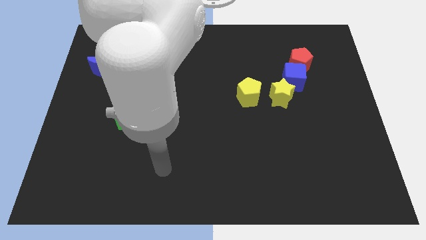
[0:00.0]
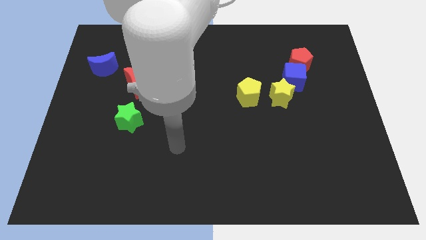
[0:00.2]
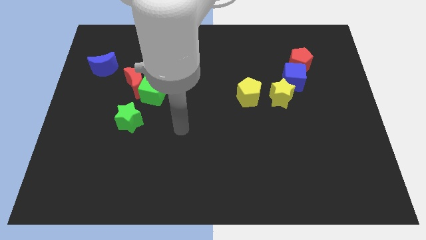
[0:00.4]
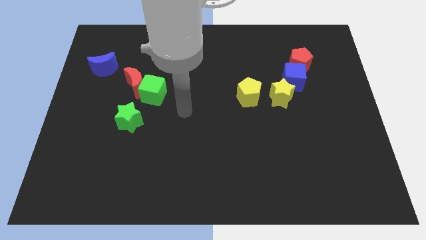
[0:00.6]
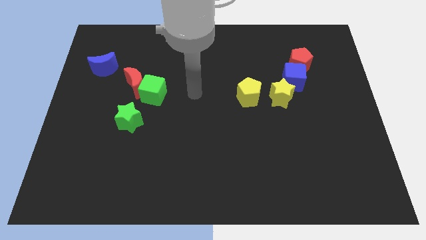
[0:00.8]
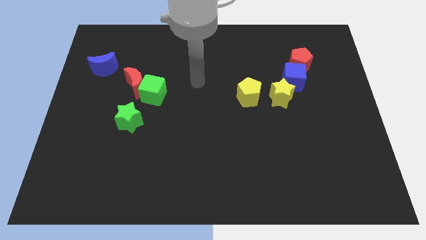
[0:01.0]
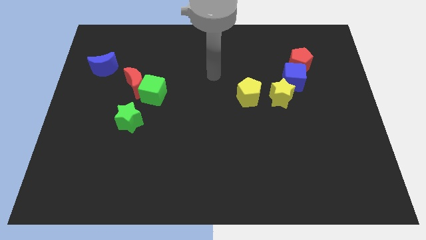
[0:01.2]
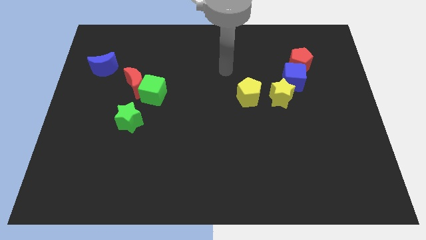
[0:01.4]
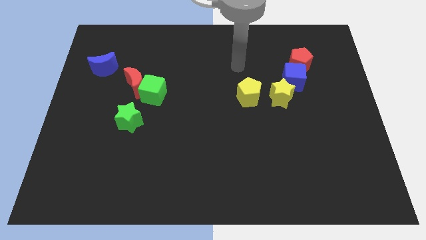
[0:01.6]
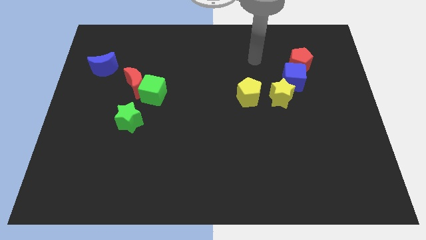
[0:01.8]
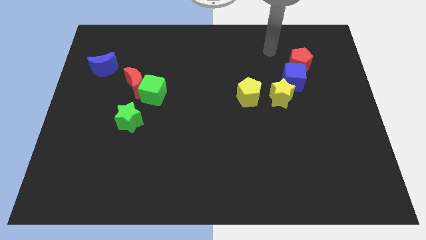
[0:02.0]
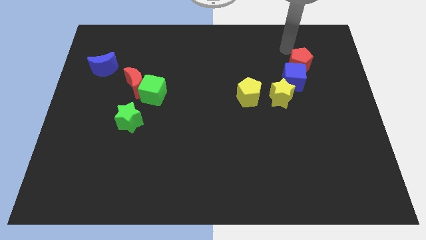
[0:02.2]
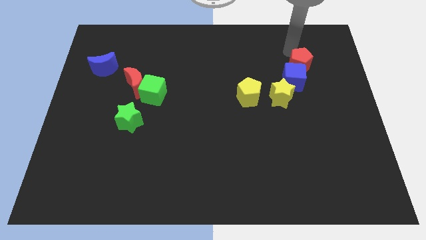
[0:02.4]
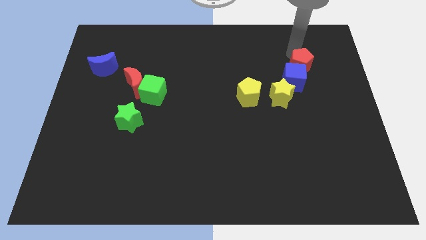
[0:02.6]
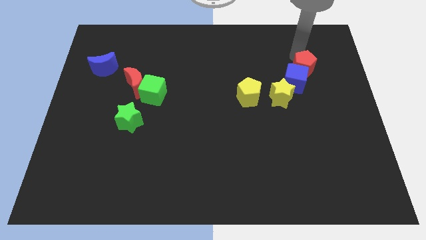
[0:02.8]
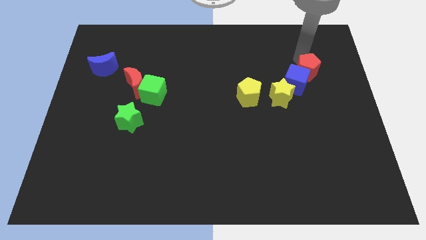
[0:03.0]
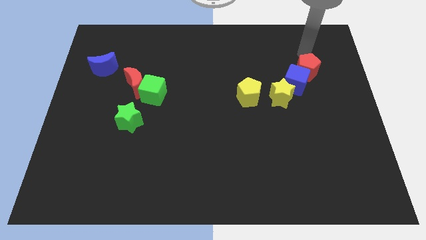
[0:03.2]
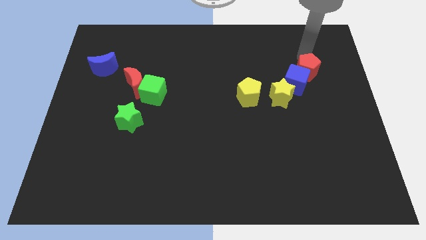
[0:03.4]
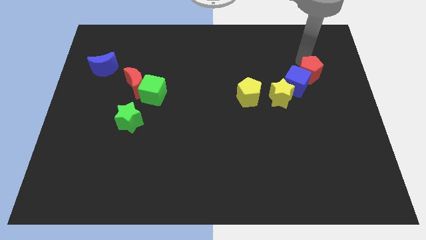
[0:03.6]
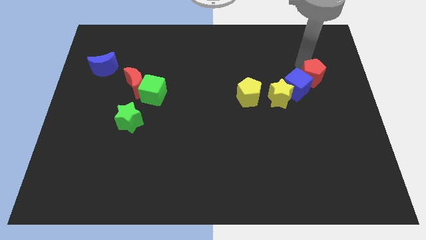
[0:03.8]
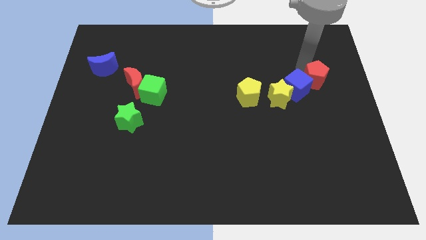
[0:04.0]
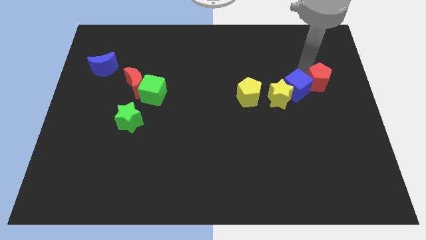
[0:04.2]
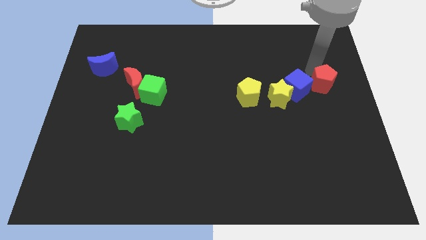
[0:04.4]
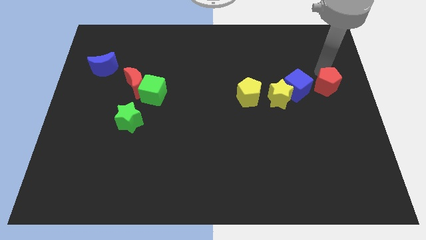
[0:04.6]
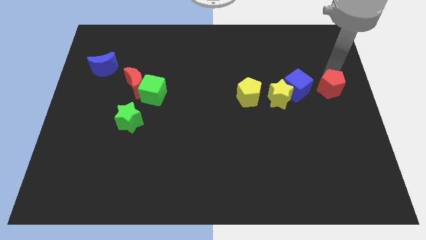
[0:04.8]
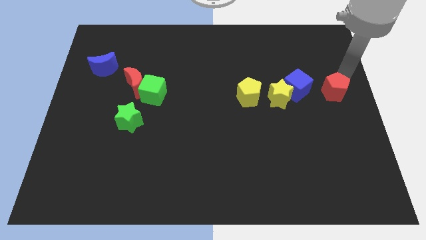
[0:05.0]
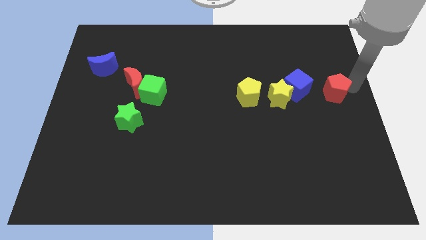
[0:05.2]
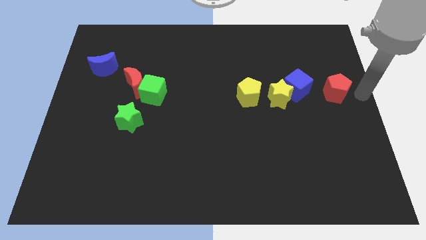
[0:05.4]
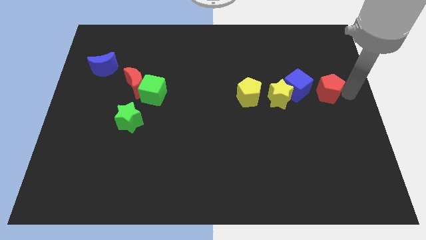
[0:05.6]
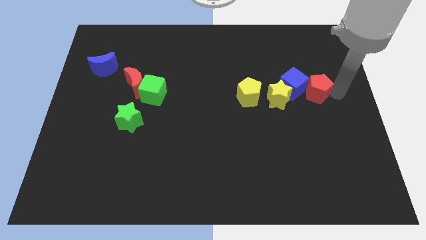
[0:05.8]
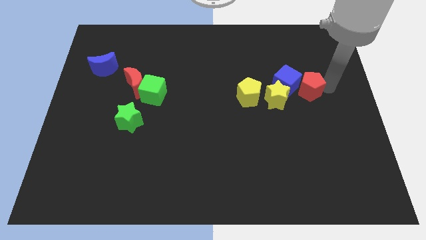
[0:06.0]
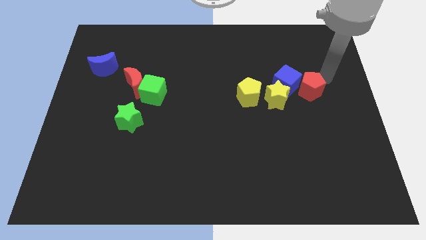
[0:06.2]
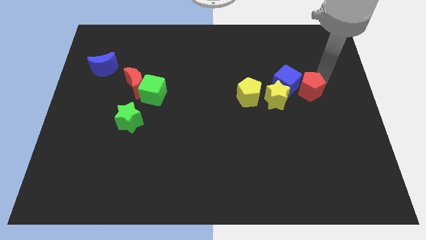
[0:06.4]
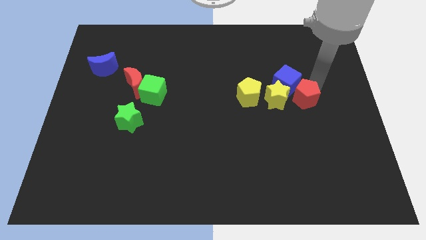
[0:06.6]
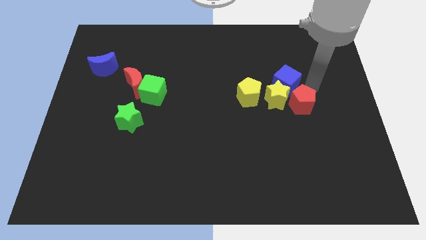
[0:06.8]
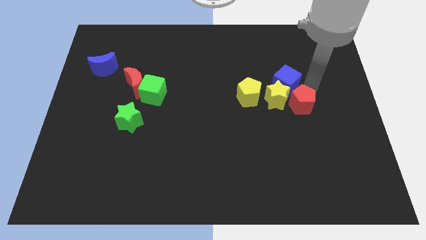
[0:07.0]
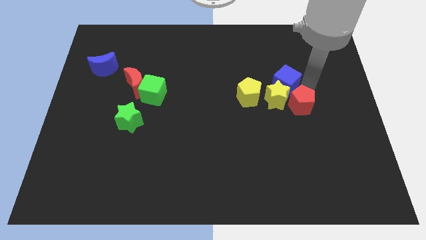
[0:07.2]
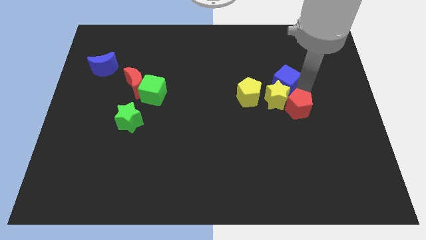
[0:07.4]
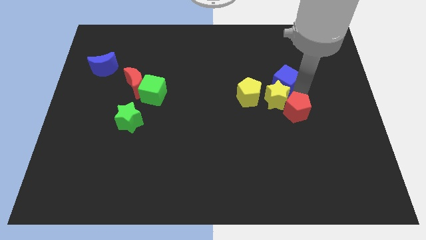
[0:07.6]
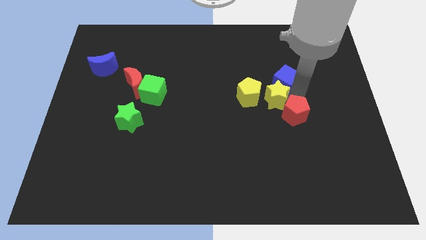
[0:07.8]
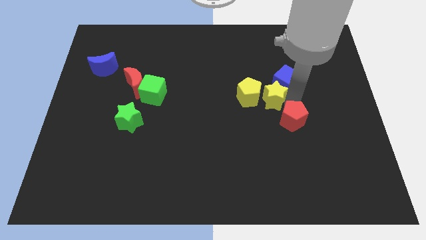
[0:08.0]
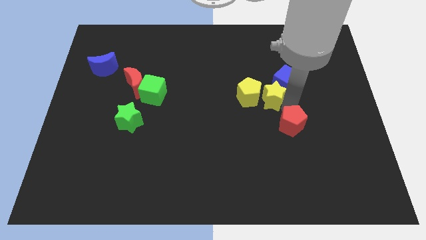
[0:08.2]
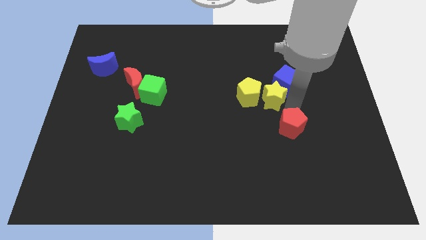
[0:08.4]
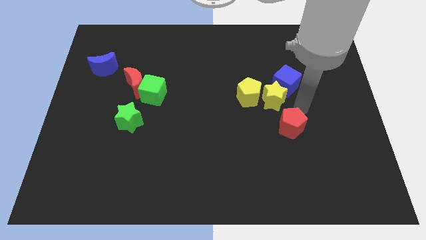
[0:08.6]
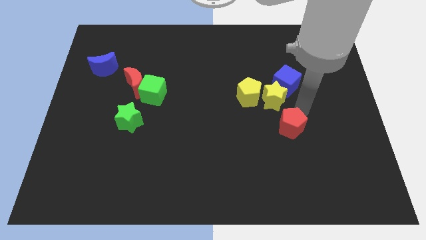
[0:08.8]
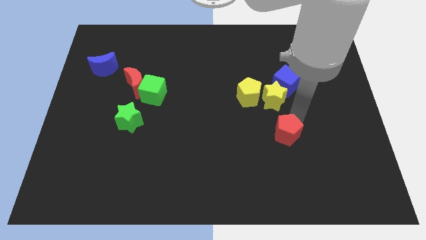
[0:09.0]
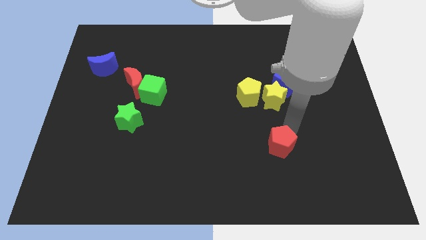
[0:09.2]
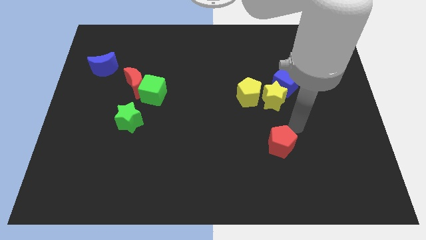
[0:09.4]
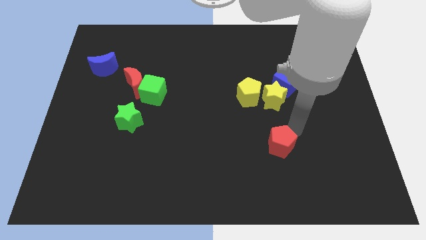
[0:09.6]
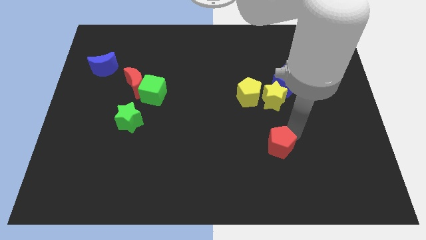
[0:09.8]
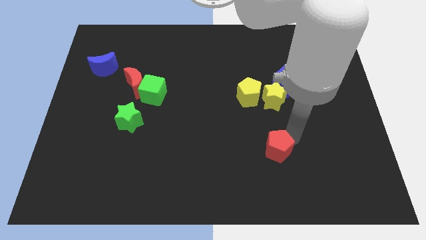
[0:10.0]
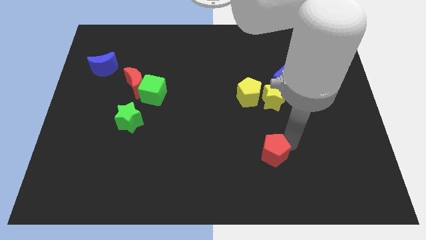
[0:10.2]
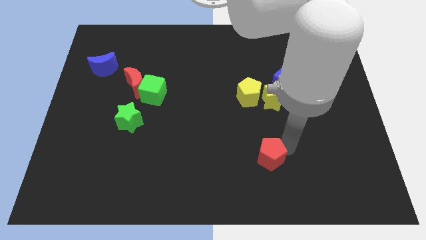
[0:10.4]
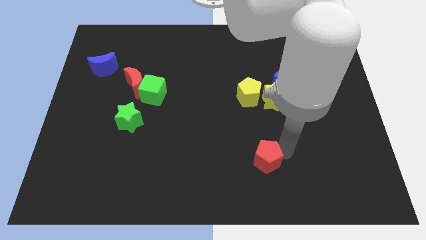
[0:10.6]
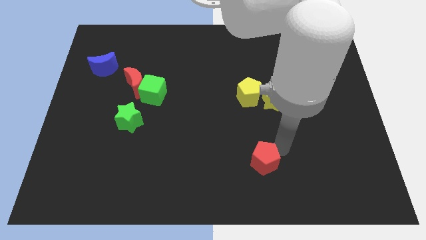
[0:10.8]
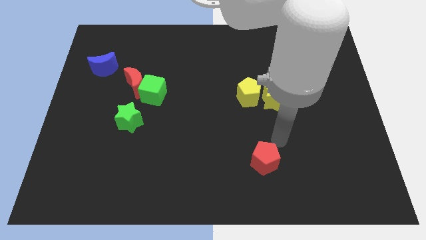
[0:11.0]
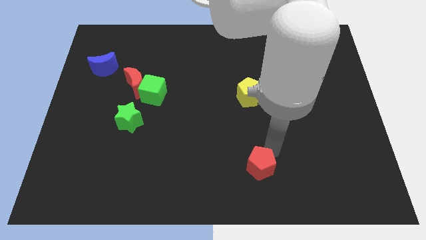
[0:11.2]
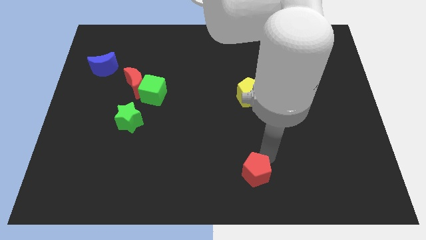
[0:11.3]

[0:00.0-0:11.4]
push the red pentagon to the bottom side
